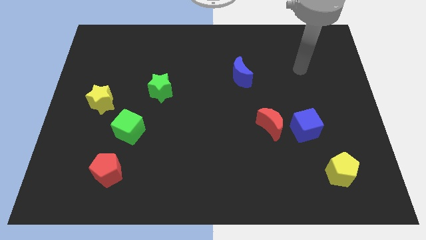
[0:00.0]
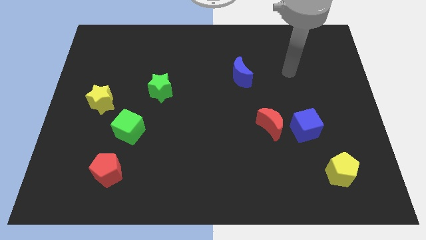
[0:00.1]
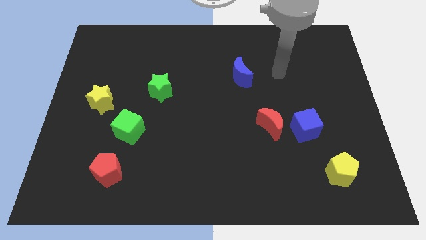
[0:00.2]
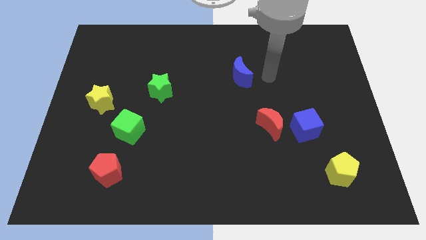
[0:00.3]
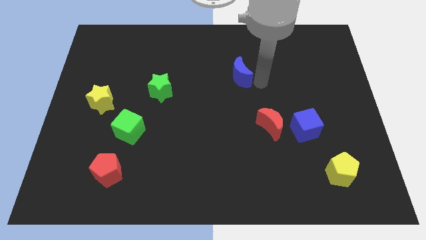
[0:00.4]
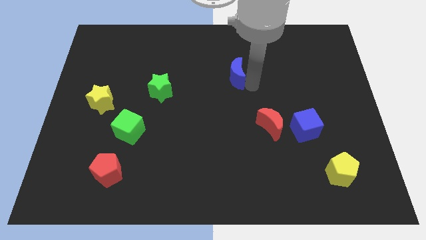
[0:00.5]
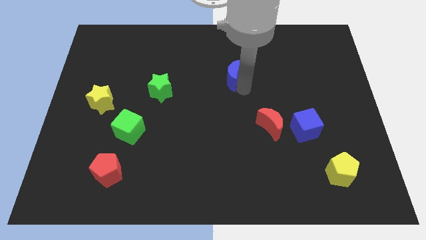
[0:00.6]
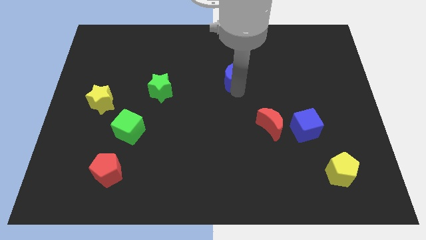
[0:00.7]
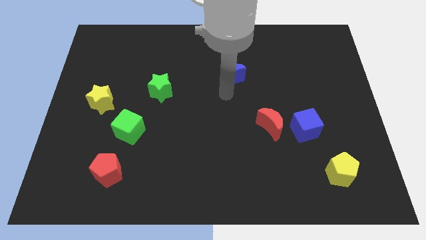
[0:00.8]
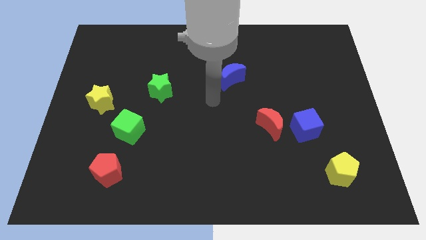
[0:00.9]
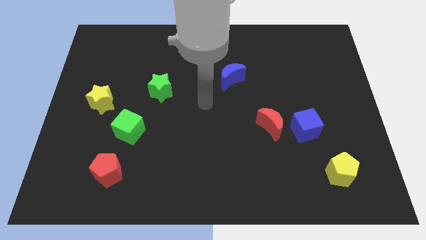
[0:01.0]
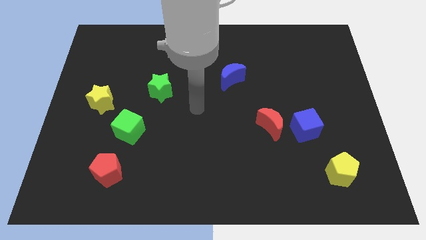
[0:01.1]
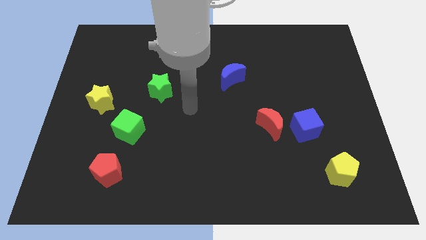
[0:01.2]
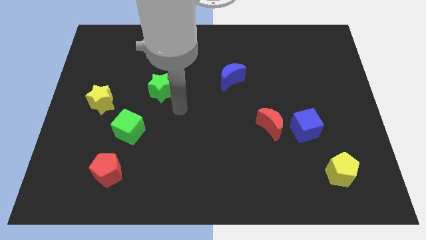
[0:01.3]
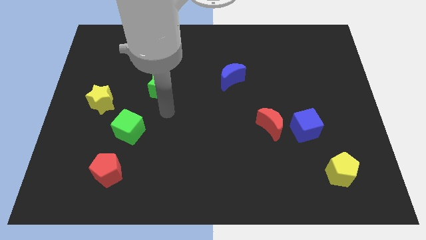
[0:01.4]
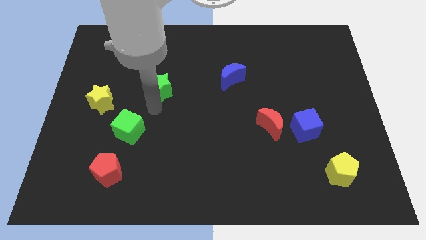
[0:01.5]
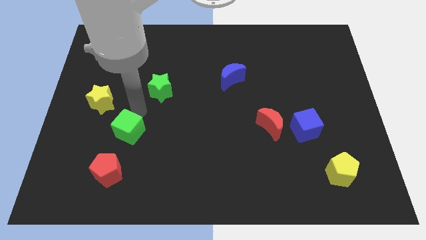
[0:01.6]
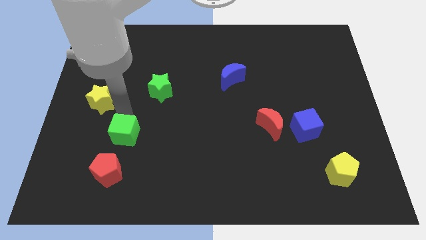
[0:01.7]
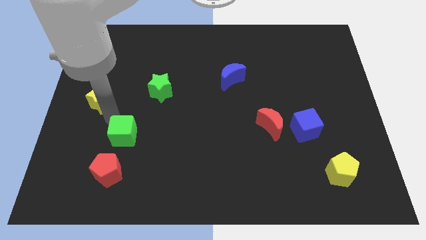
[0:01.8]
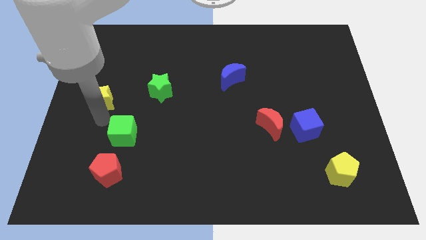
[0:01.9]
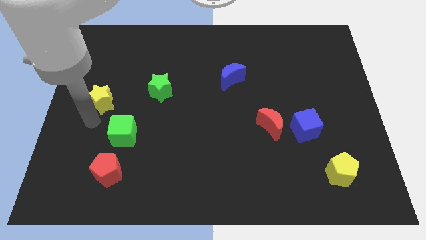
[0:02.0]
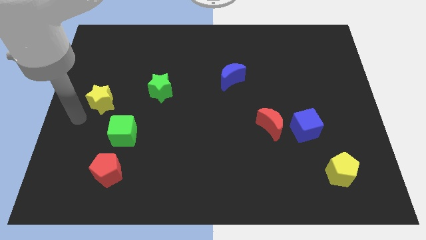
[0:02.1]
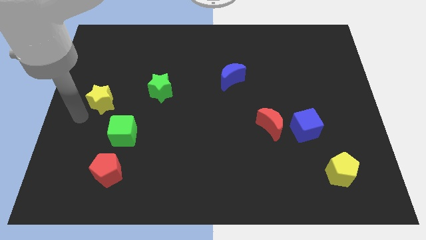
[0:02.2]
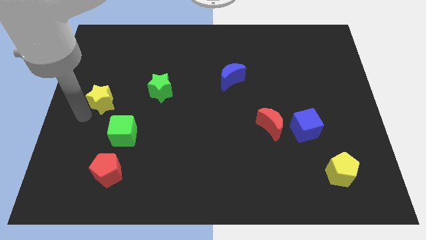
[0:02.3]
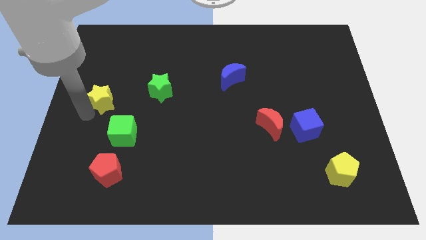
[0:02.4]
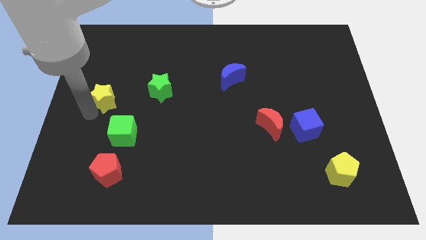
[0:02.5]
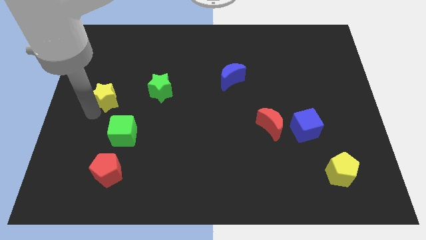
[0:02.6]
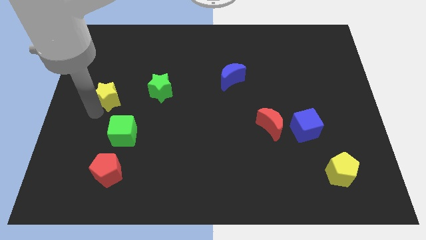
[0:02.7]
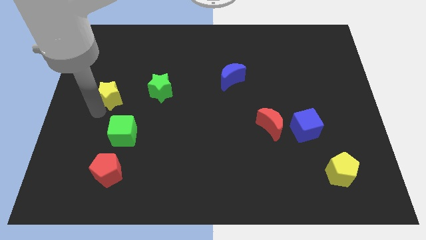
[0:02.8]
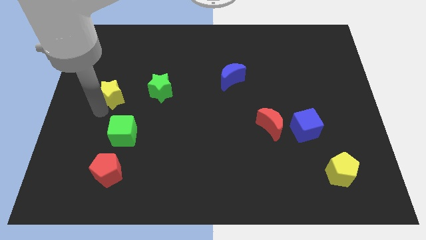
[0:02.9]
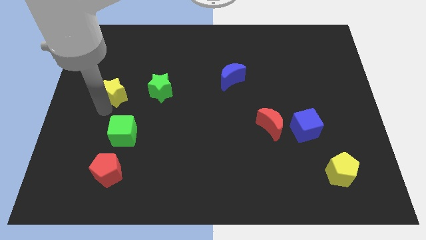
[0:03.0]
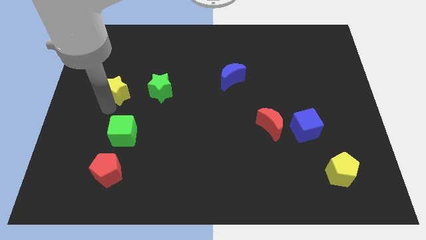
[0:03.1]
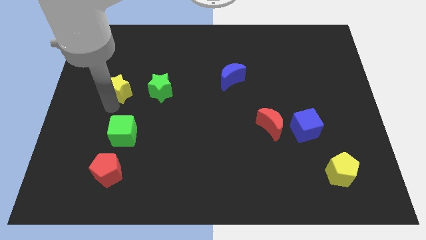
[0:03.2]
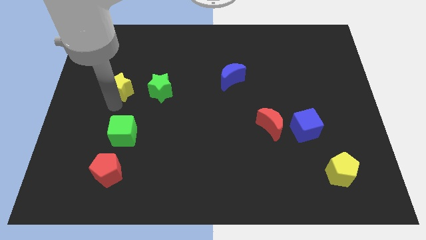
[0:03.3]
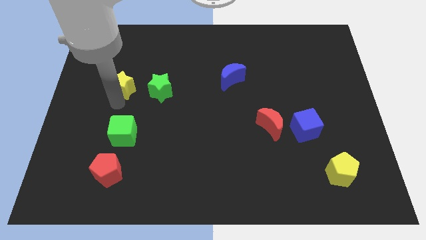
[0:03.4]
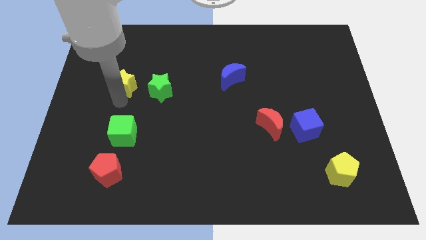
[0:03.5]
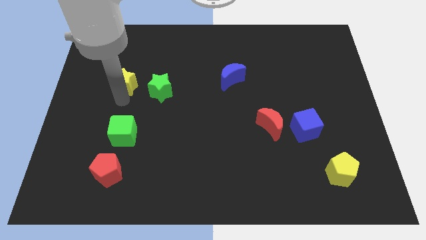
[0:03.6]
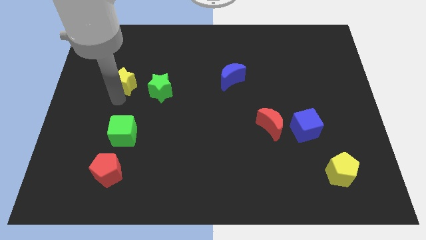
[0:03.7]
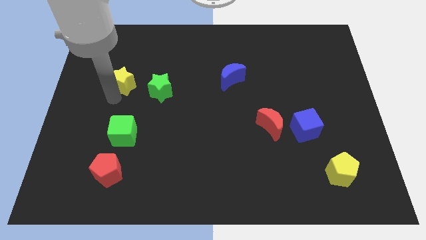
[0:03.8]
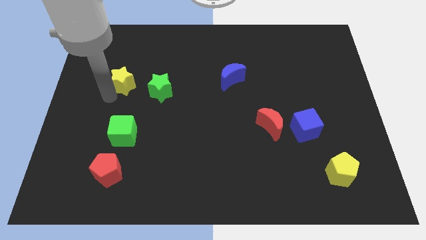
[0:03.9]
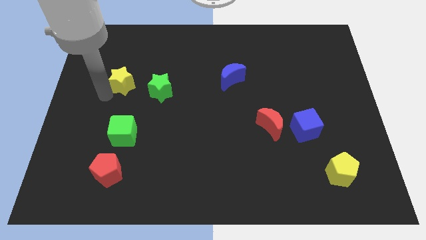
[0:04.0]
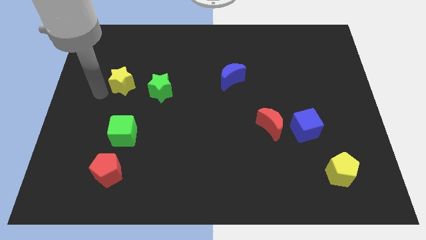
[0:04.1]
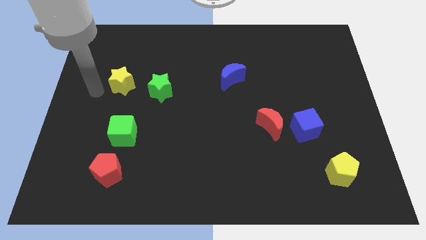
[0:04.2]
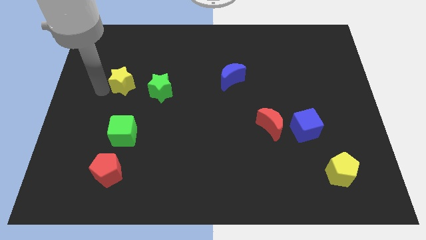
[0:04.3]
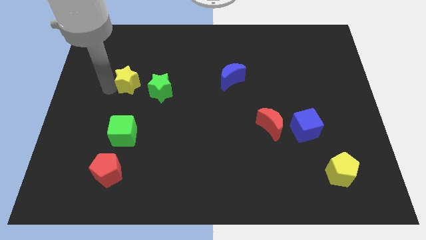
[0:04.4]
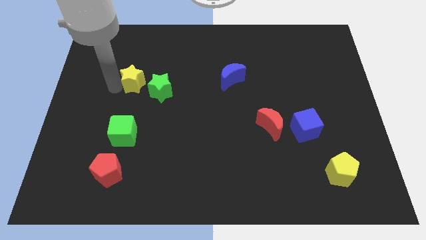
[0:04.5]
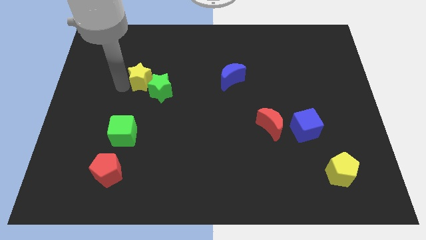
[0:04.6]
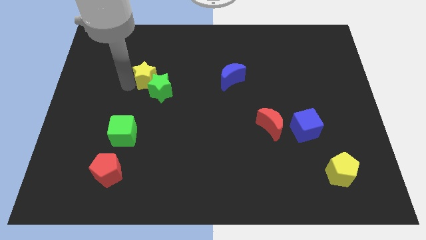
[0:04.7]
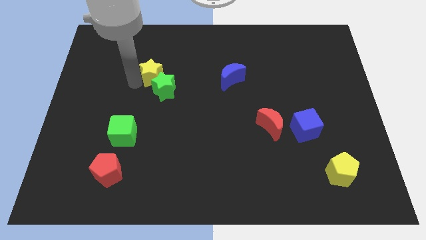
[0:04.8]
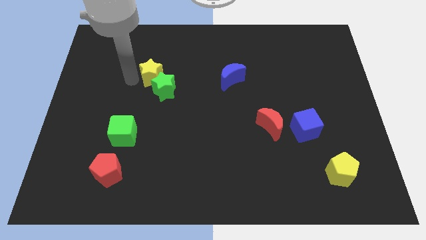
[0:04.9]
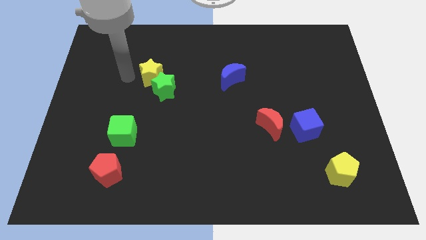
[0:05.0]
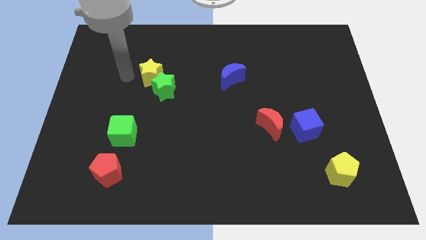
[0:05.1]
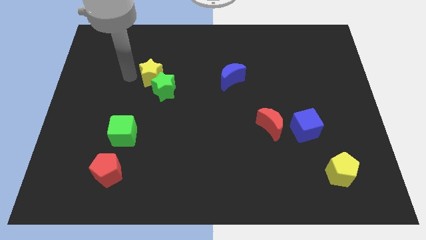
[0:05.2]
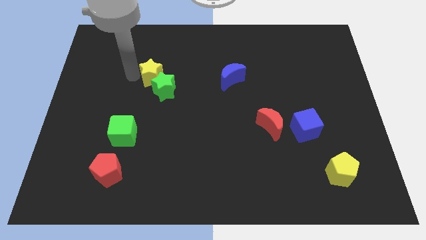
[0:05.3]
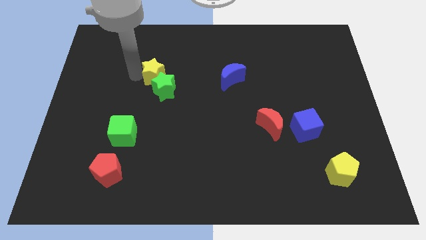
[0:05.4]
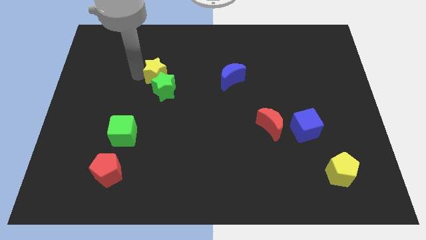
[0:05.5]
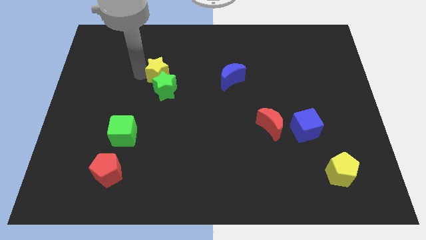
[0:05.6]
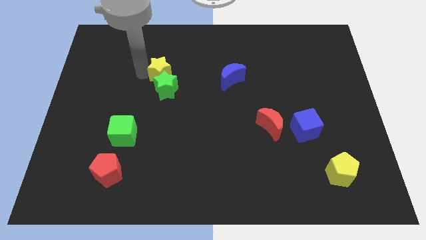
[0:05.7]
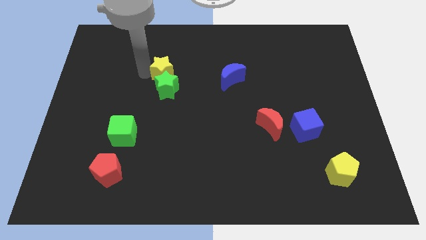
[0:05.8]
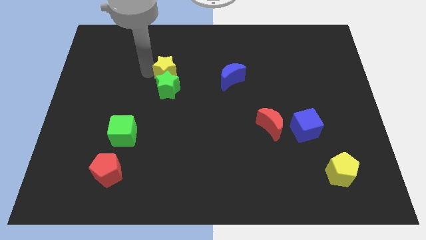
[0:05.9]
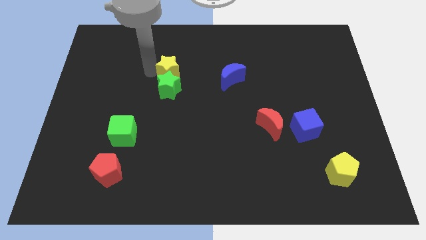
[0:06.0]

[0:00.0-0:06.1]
put the yellow star just left of the blue moon
